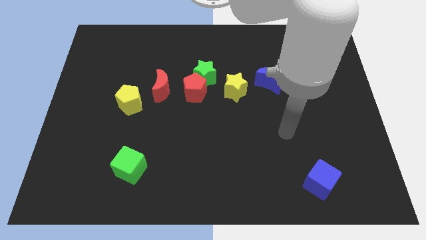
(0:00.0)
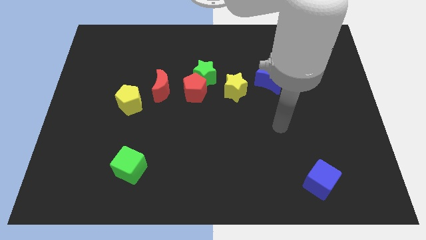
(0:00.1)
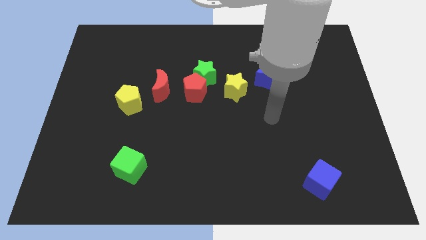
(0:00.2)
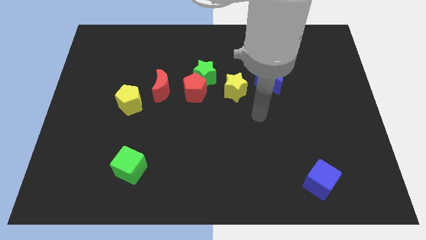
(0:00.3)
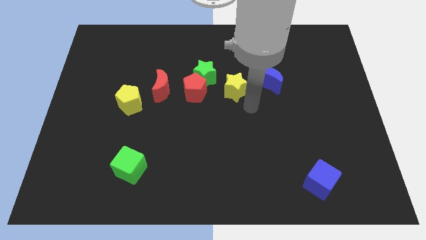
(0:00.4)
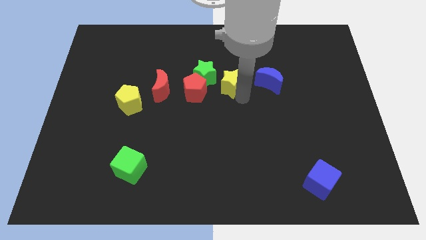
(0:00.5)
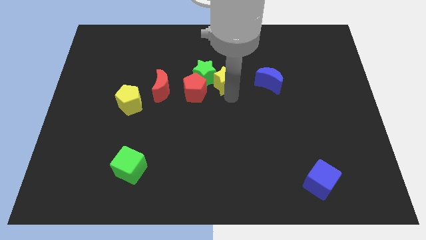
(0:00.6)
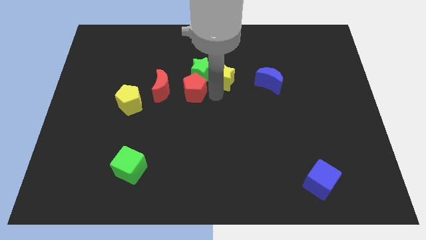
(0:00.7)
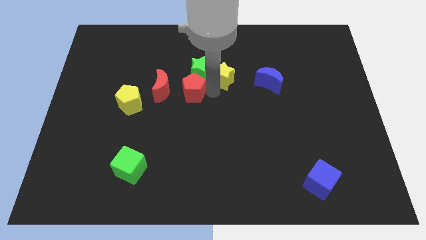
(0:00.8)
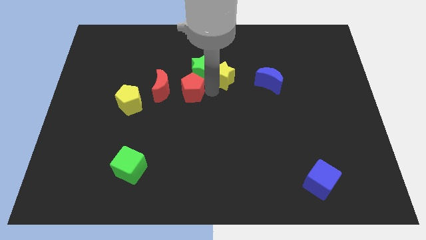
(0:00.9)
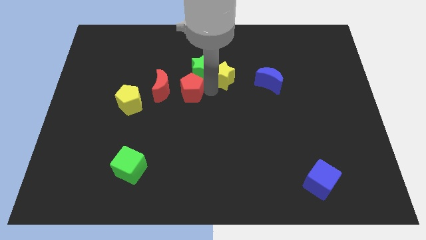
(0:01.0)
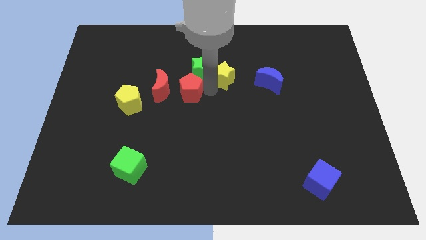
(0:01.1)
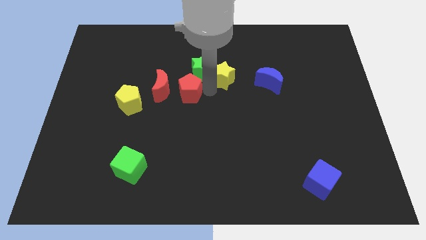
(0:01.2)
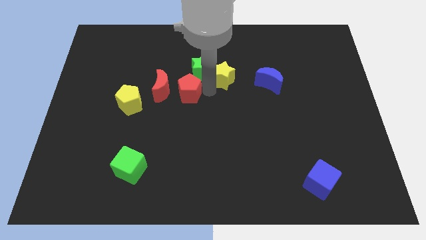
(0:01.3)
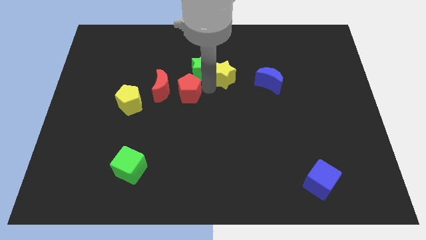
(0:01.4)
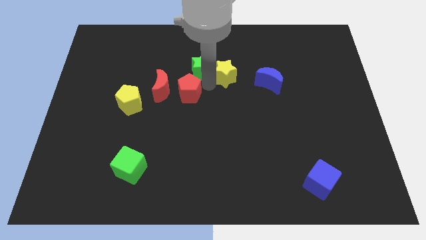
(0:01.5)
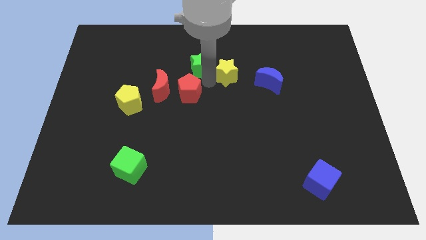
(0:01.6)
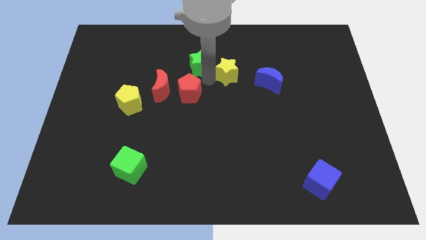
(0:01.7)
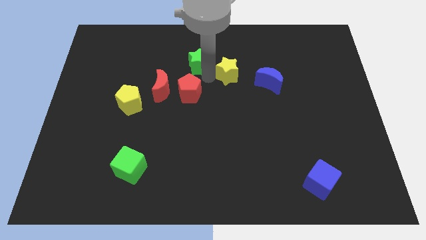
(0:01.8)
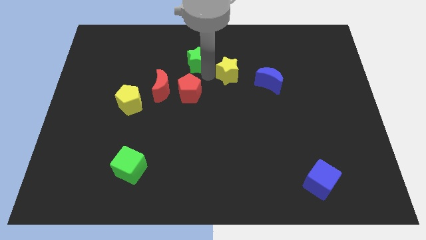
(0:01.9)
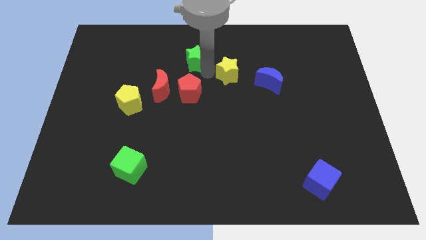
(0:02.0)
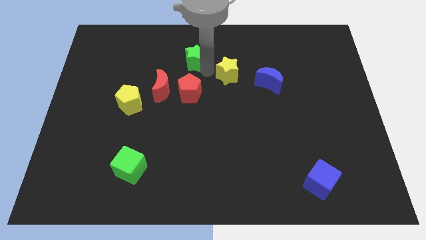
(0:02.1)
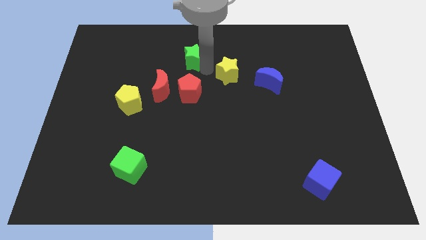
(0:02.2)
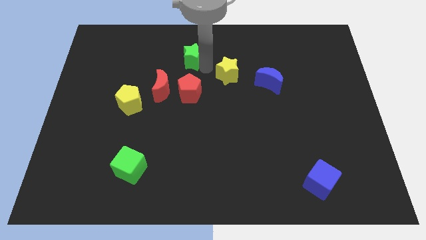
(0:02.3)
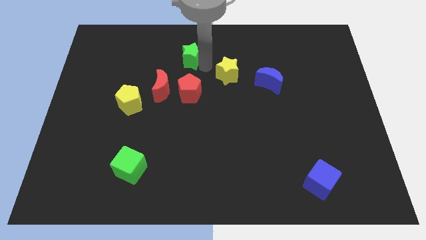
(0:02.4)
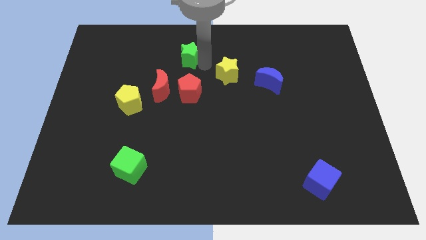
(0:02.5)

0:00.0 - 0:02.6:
separate the green star from the red pentagon and yellow star

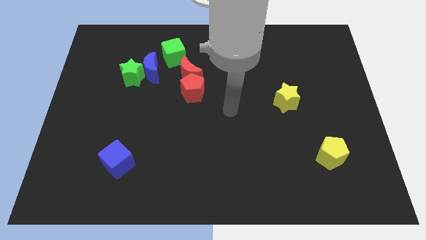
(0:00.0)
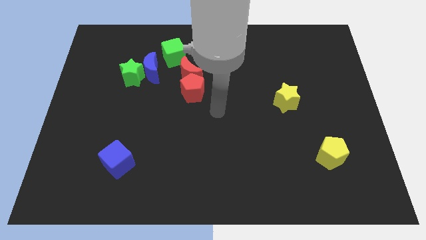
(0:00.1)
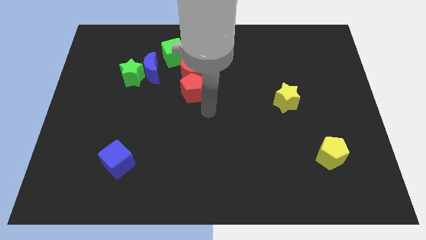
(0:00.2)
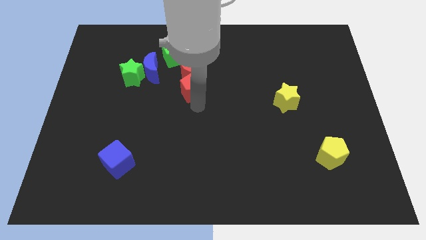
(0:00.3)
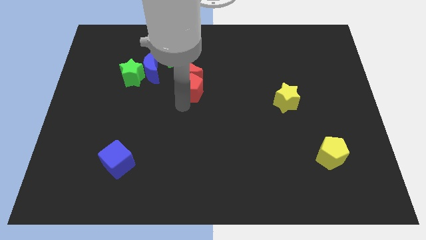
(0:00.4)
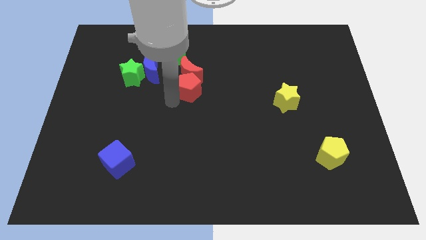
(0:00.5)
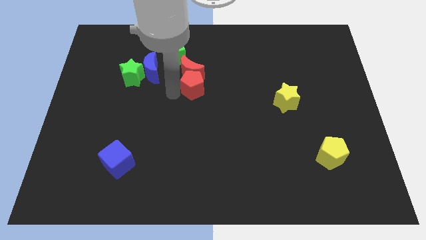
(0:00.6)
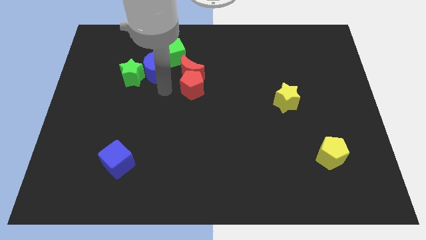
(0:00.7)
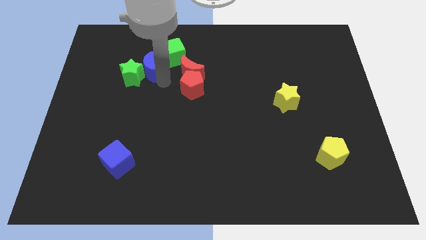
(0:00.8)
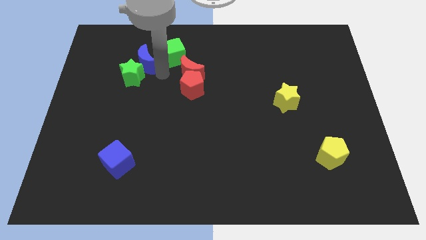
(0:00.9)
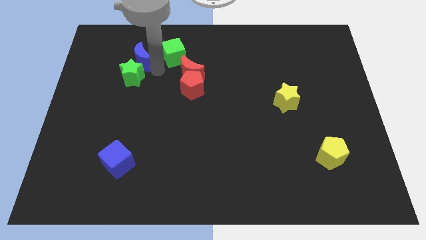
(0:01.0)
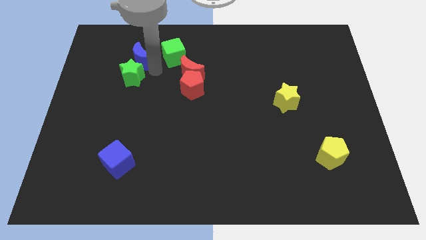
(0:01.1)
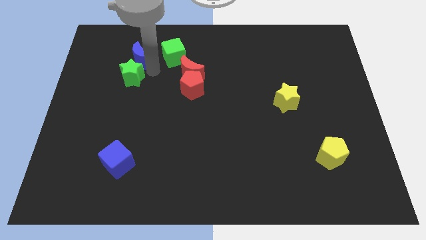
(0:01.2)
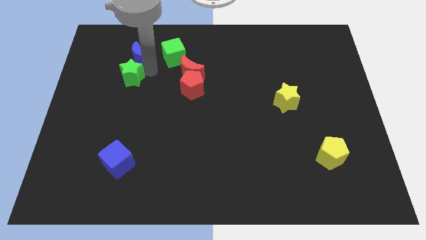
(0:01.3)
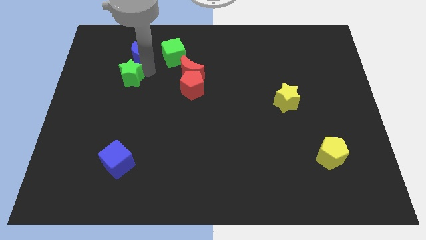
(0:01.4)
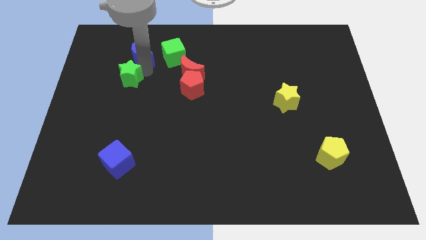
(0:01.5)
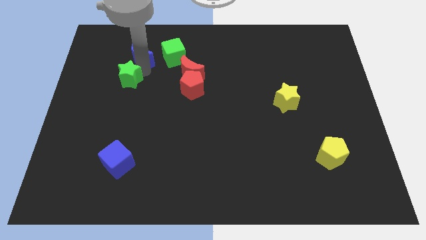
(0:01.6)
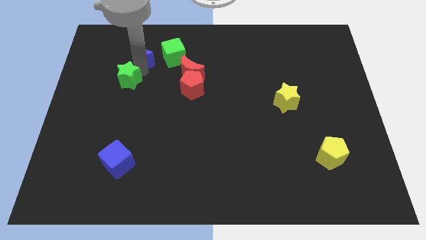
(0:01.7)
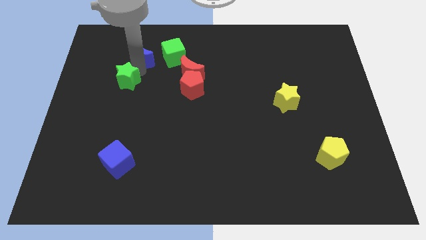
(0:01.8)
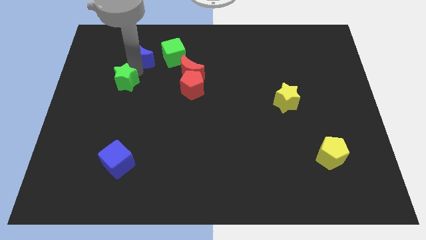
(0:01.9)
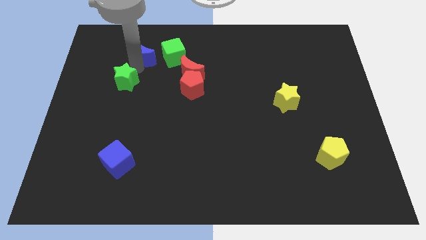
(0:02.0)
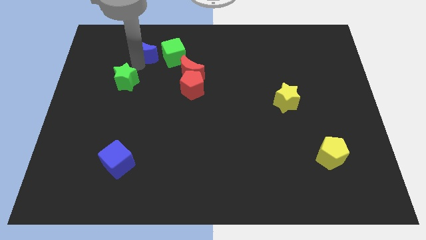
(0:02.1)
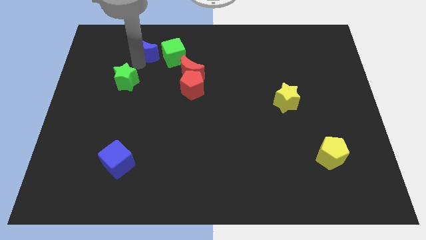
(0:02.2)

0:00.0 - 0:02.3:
move the green star away from the blue moon

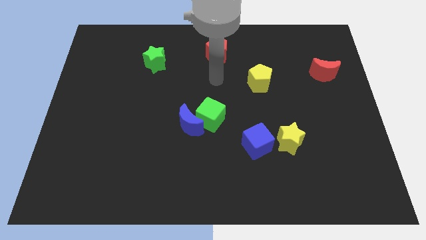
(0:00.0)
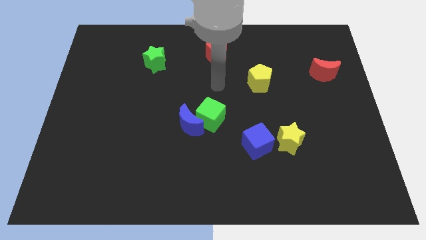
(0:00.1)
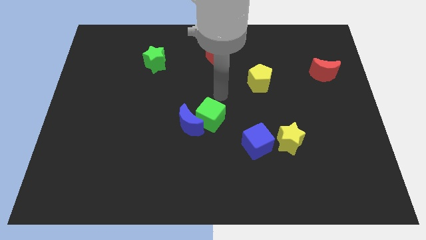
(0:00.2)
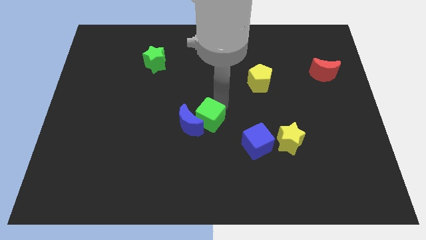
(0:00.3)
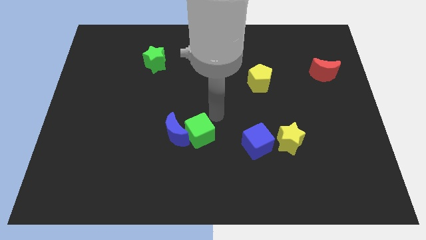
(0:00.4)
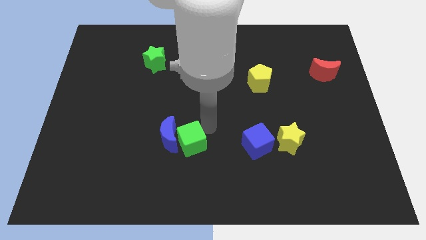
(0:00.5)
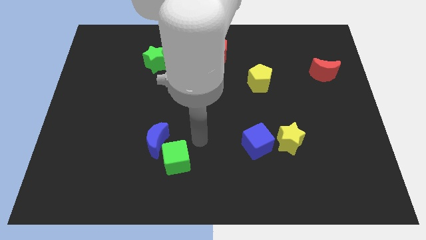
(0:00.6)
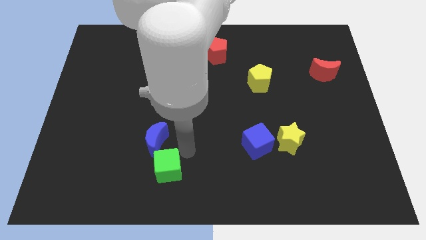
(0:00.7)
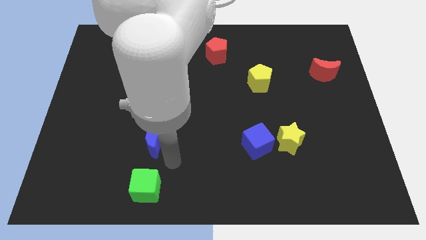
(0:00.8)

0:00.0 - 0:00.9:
pull the blue moon apart from the green cube

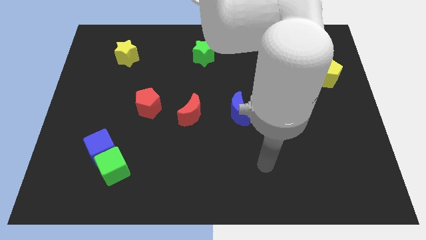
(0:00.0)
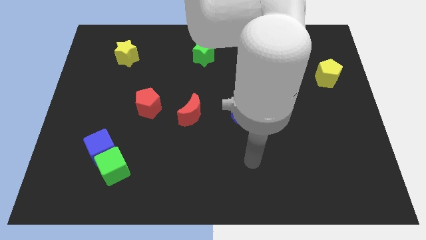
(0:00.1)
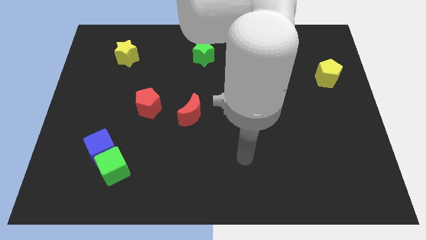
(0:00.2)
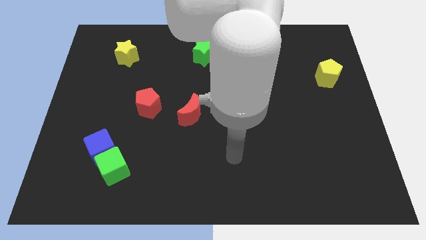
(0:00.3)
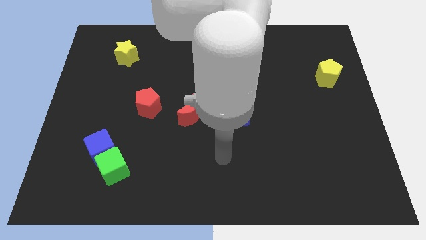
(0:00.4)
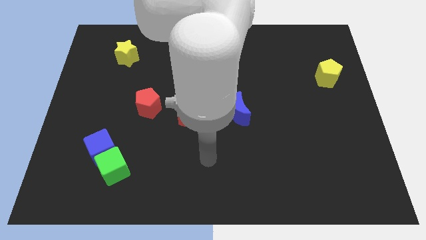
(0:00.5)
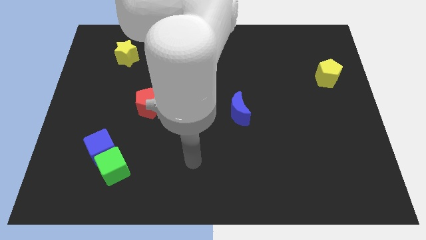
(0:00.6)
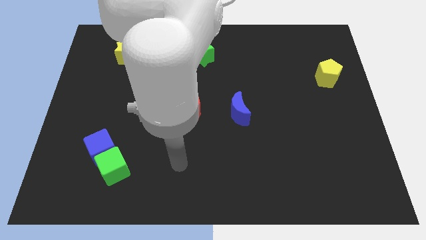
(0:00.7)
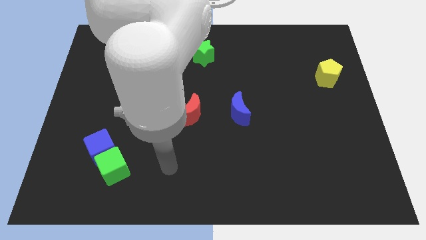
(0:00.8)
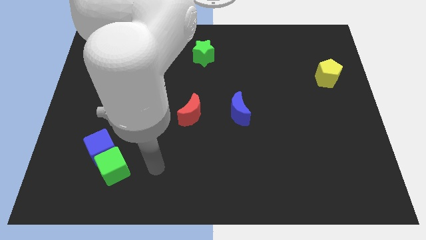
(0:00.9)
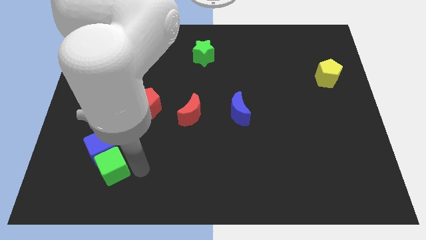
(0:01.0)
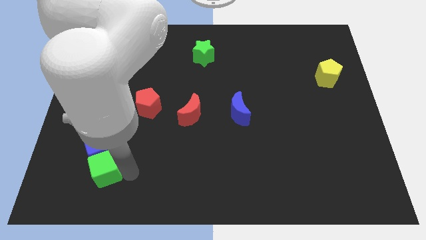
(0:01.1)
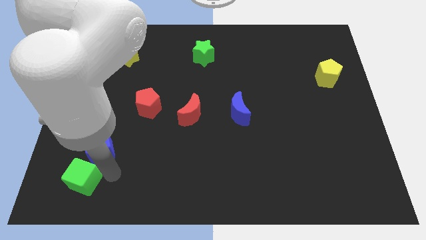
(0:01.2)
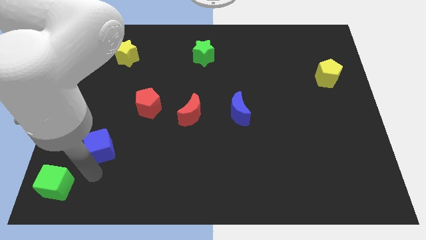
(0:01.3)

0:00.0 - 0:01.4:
separate the blue cube from the green cube

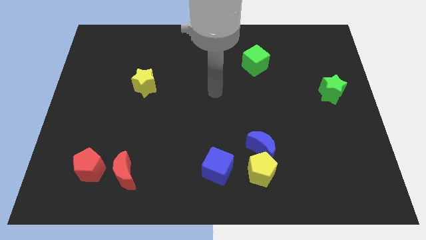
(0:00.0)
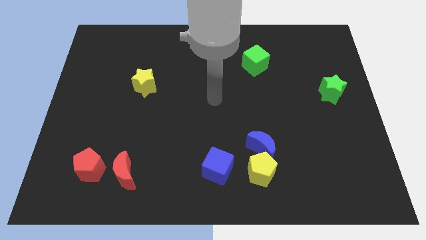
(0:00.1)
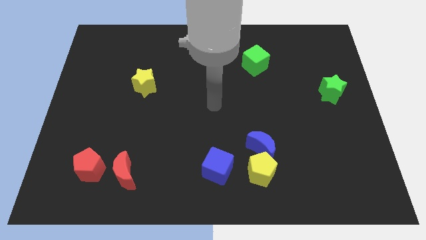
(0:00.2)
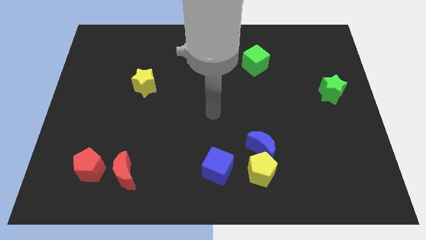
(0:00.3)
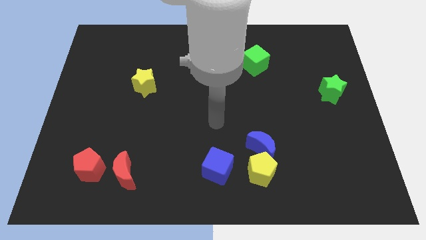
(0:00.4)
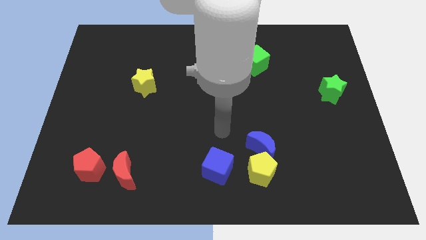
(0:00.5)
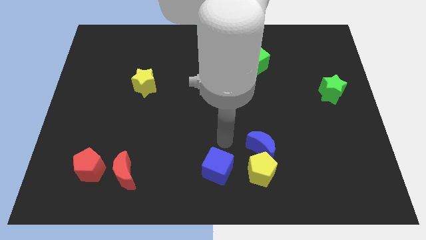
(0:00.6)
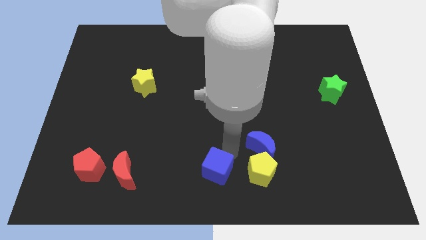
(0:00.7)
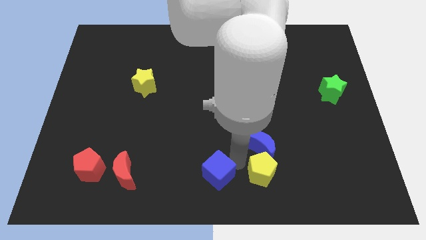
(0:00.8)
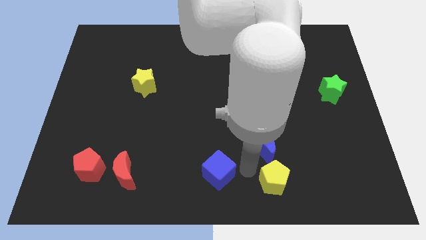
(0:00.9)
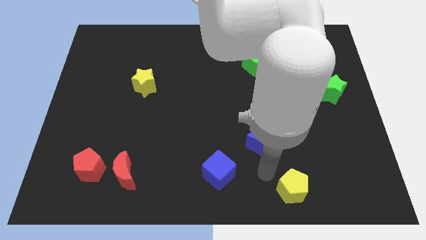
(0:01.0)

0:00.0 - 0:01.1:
separate the blue moon from the yellow pentagon

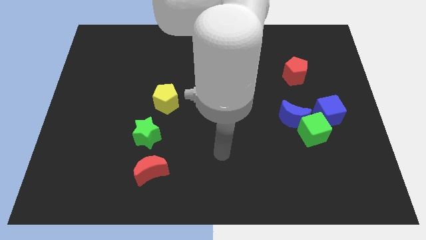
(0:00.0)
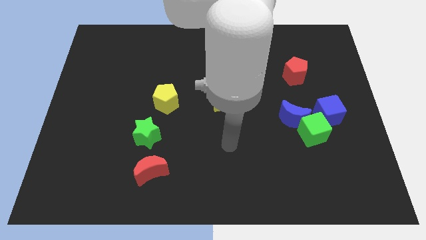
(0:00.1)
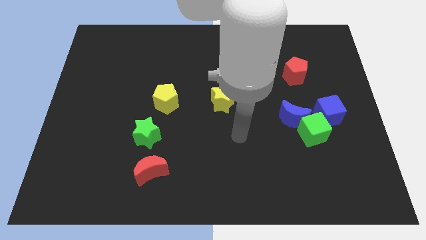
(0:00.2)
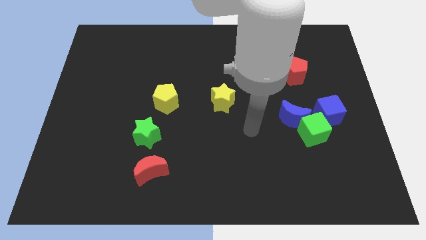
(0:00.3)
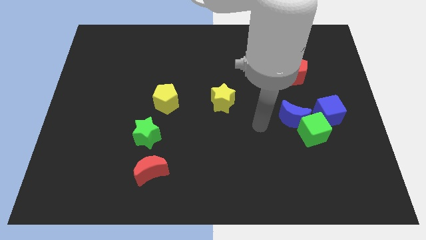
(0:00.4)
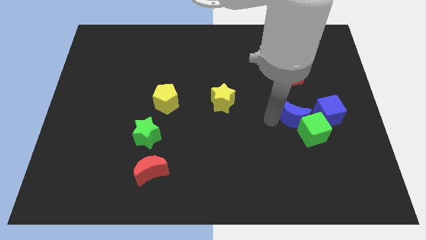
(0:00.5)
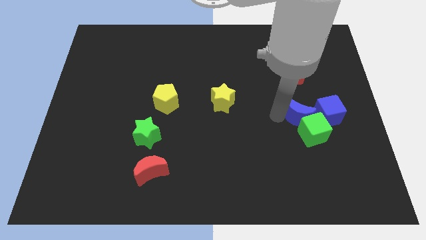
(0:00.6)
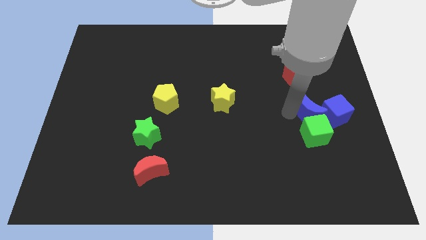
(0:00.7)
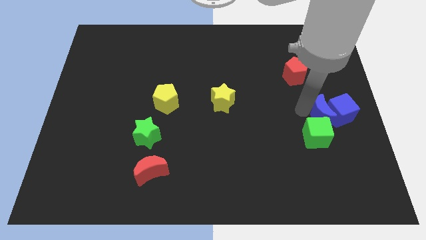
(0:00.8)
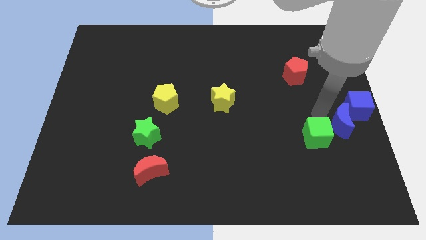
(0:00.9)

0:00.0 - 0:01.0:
separate the green cube from the blue moon and blue cube
